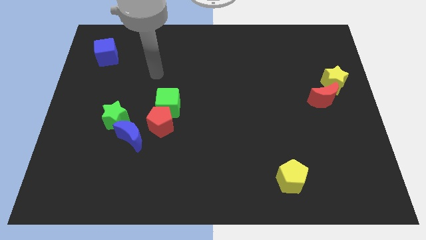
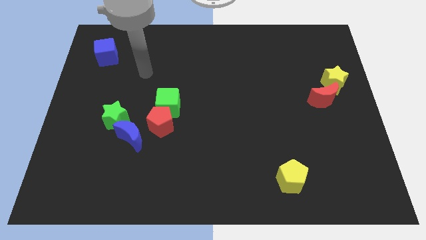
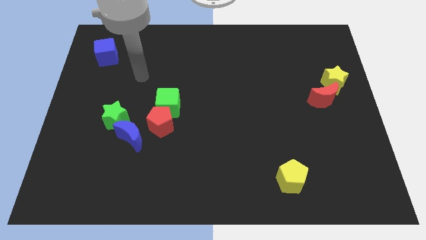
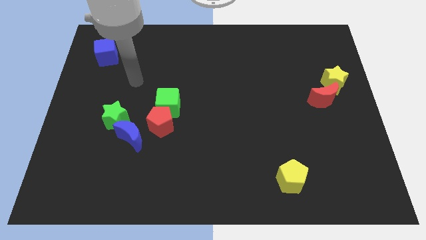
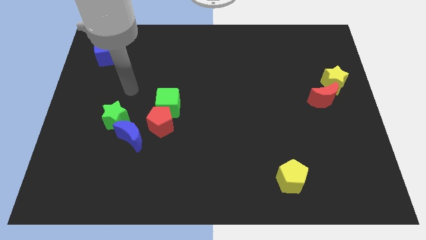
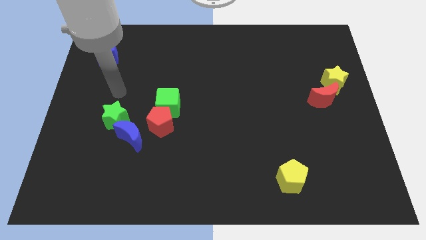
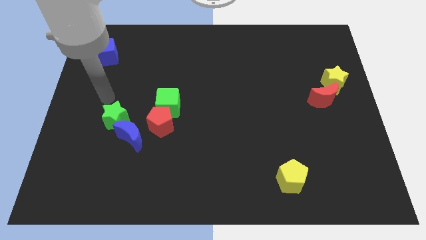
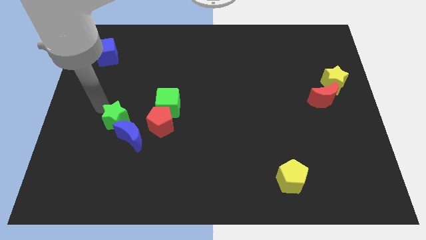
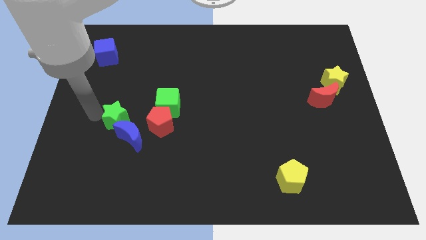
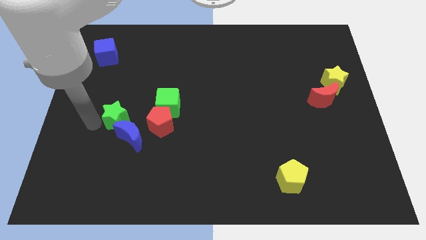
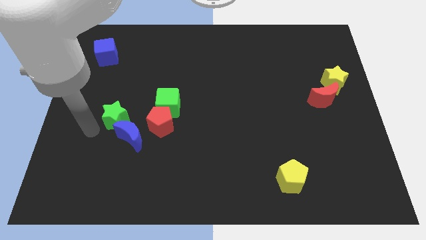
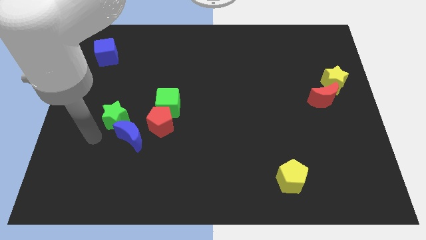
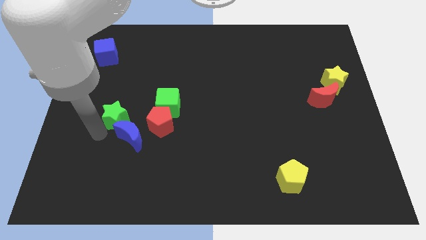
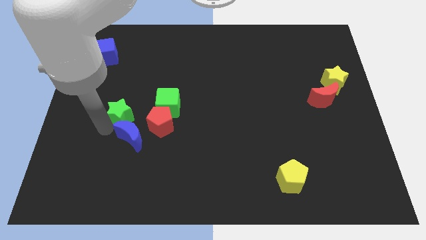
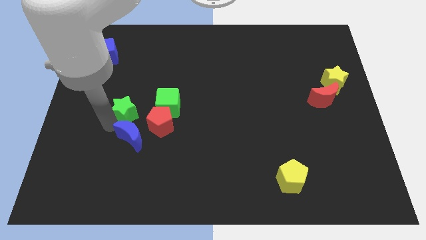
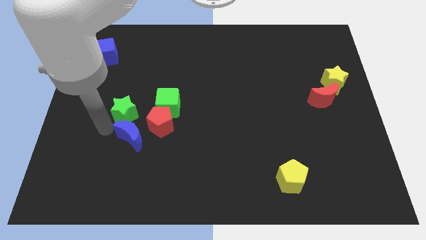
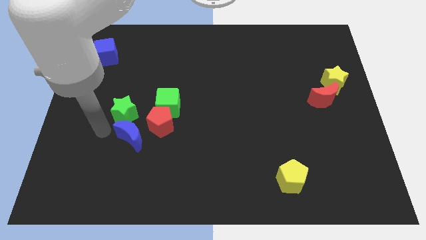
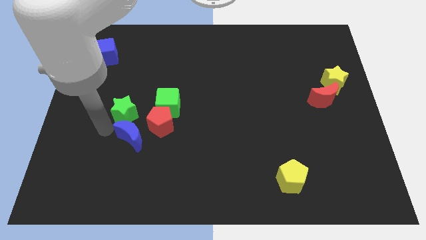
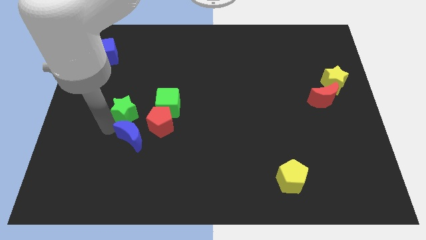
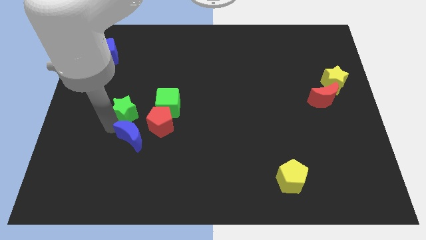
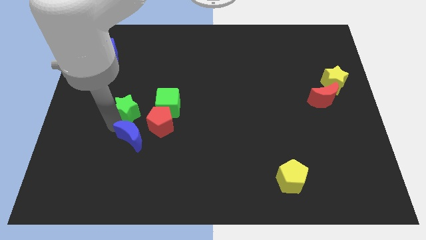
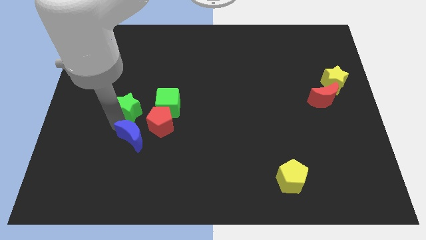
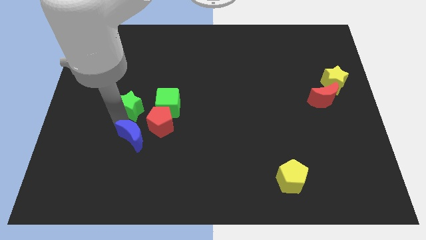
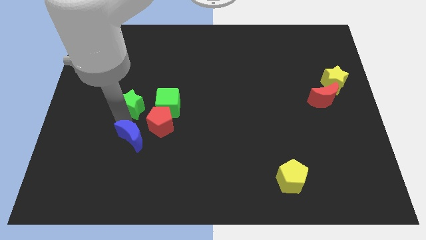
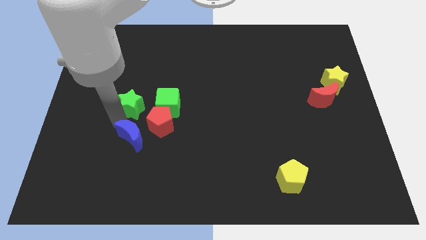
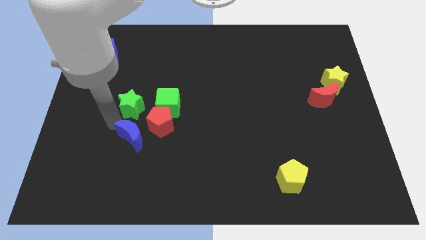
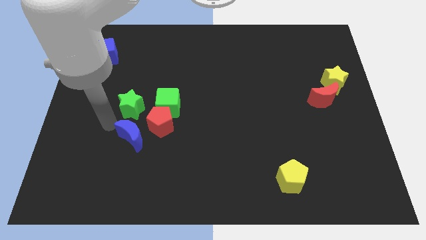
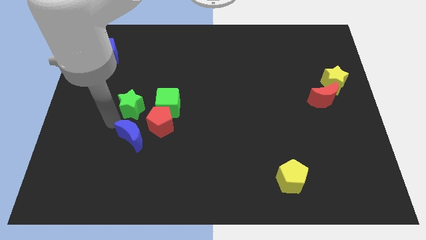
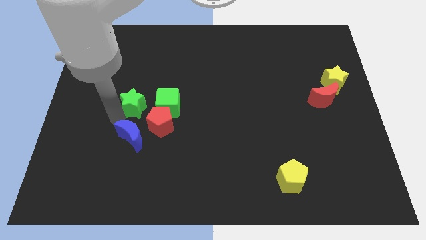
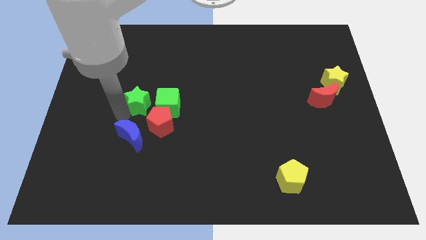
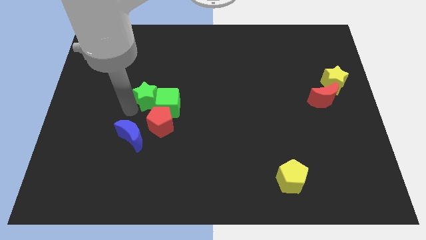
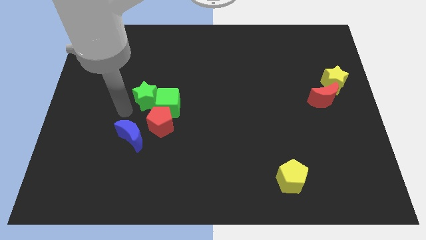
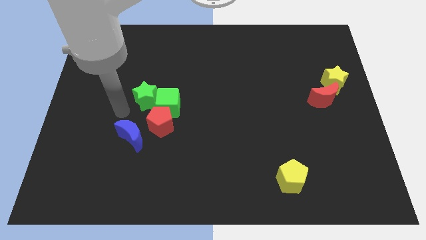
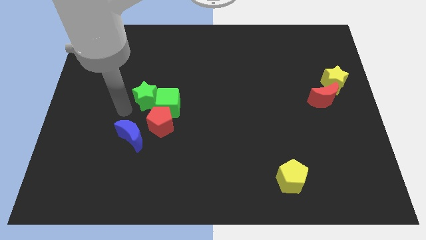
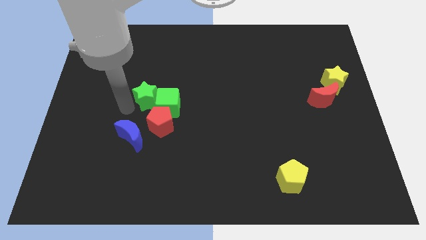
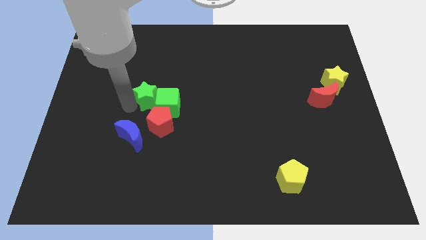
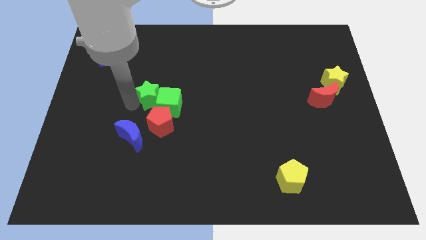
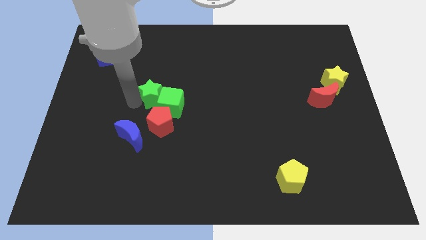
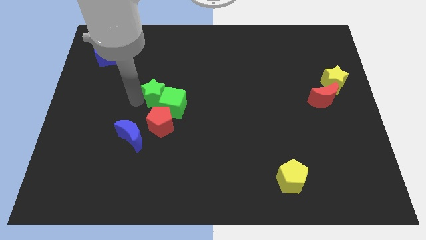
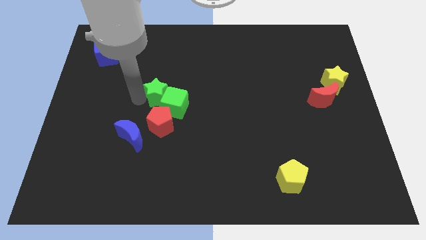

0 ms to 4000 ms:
slightly slide the green star to the right

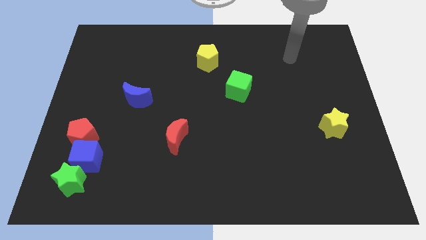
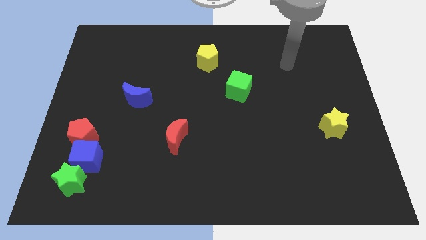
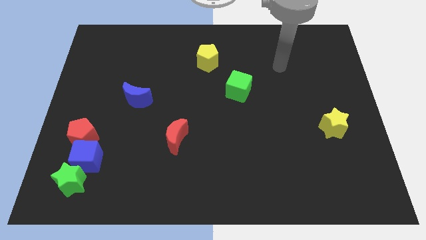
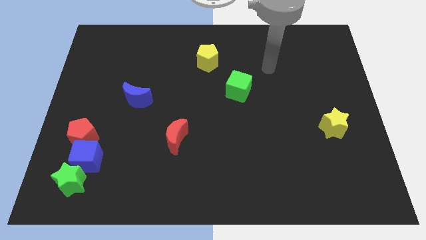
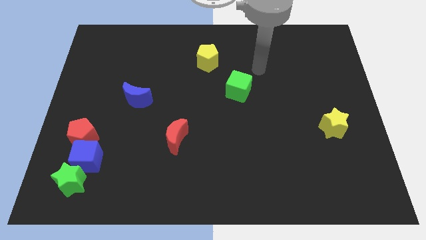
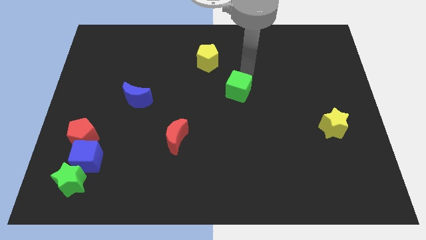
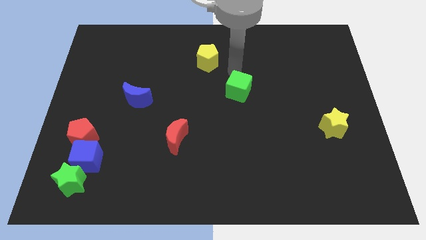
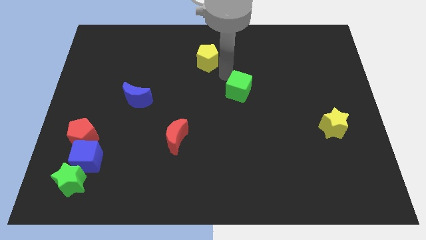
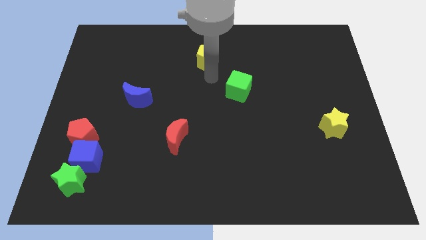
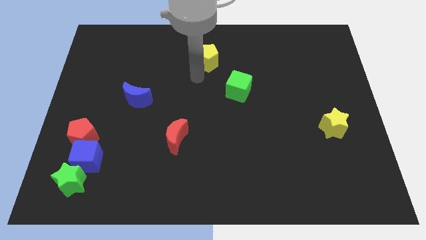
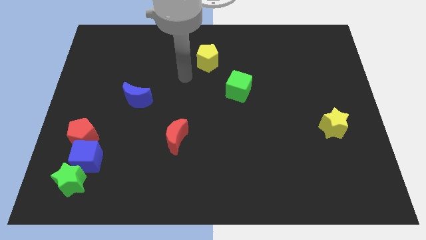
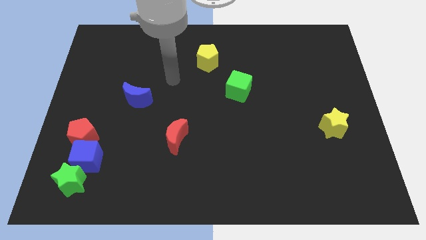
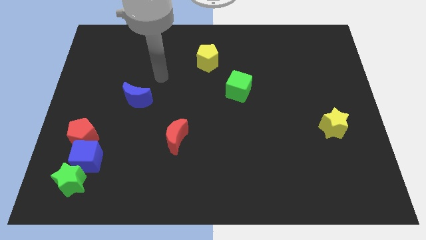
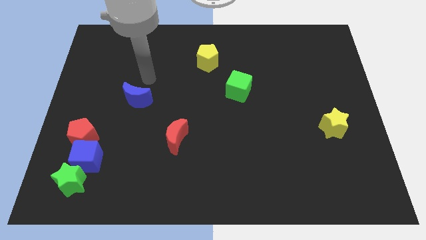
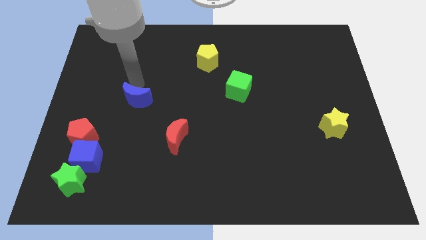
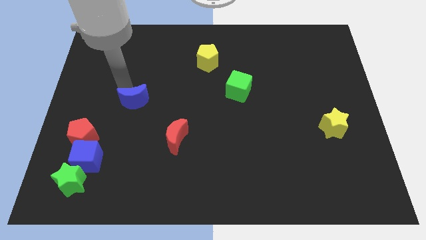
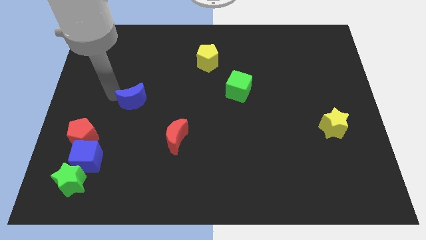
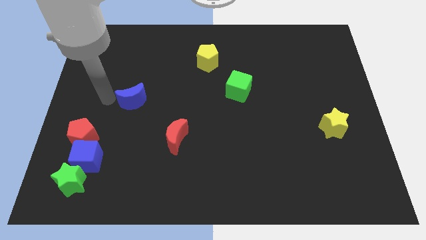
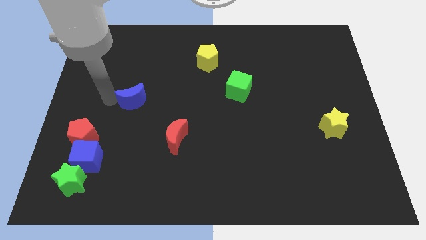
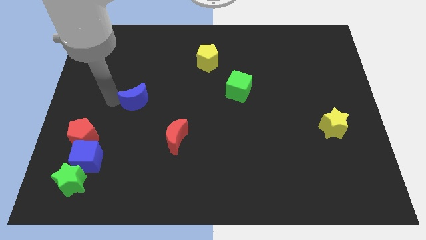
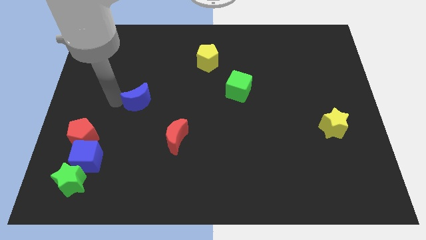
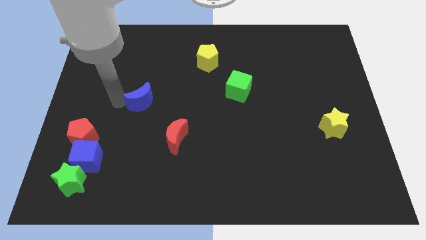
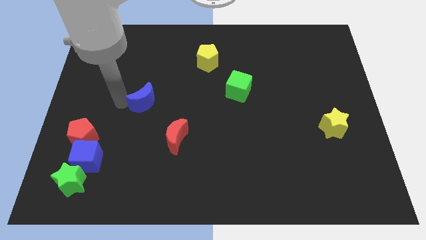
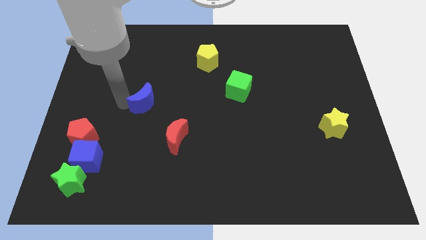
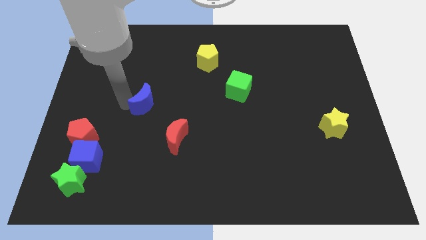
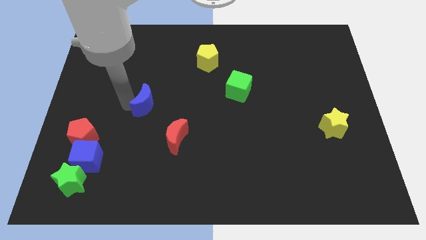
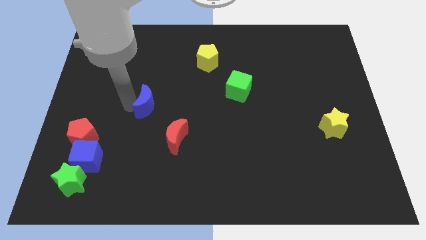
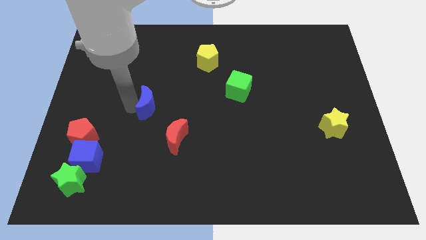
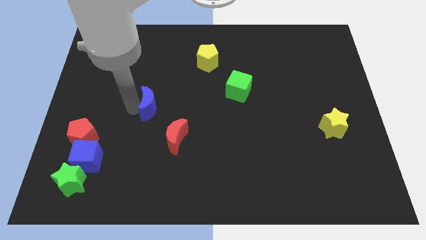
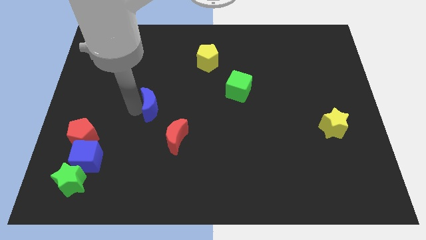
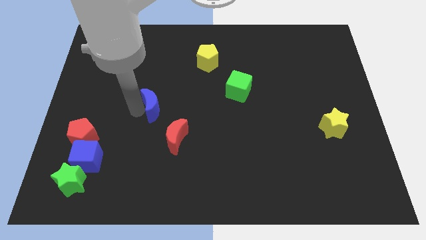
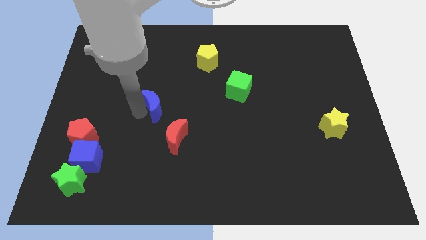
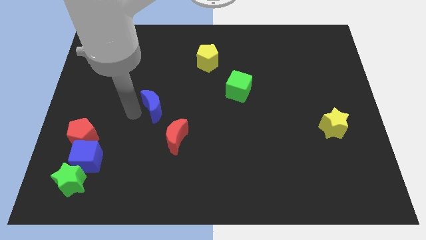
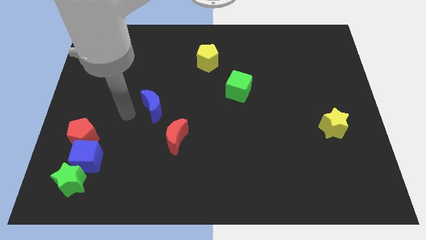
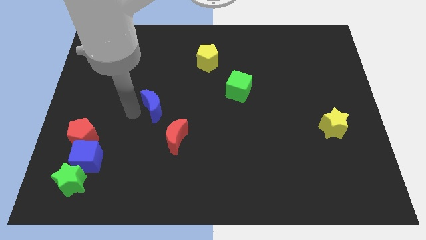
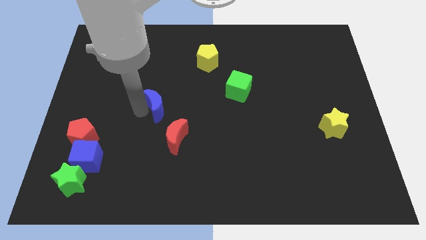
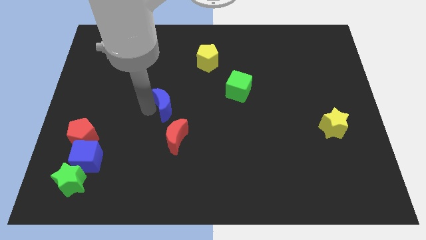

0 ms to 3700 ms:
slightly push the blue moon right

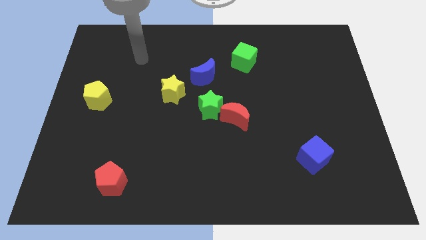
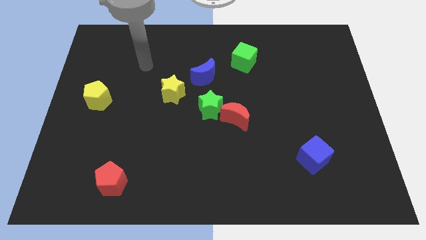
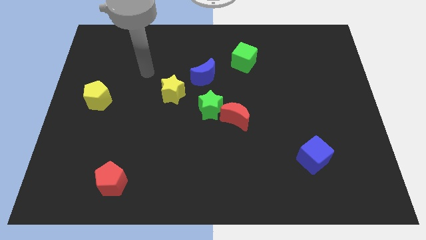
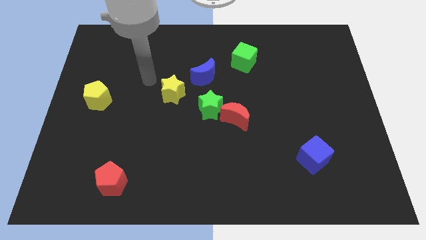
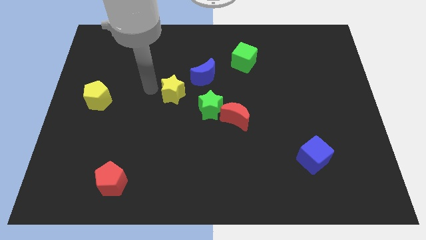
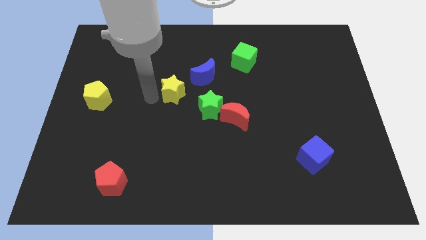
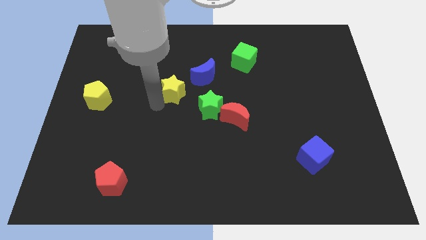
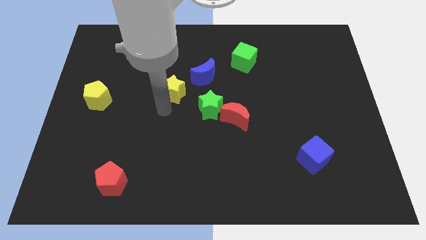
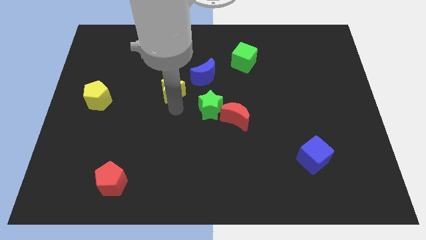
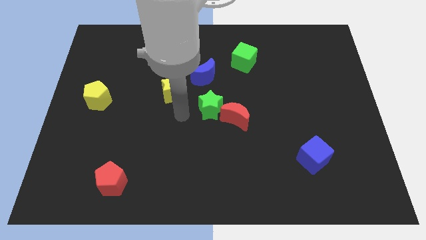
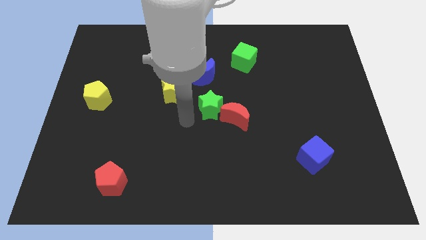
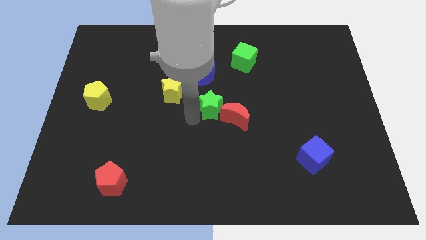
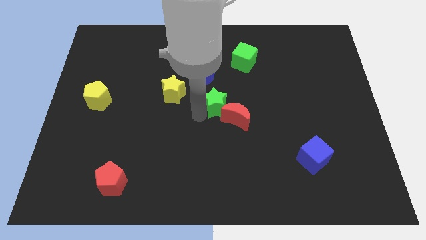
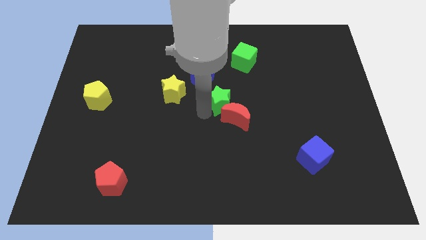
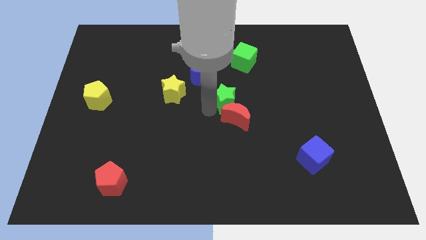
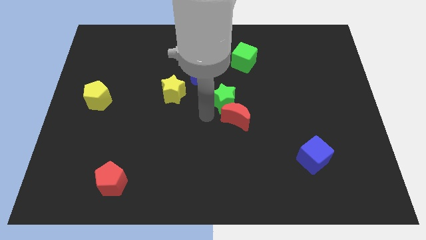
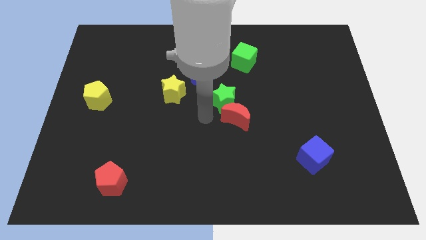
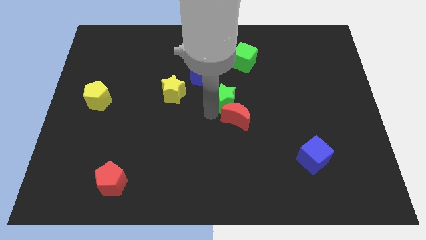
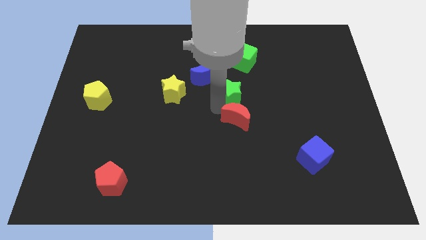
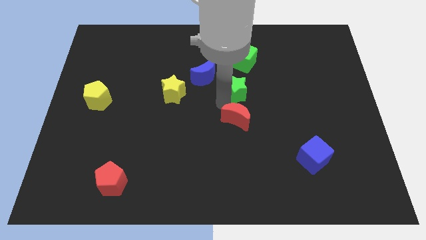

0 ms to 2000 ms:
move the green star diagonally up and right a little
